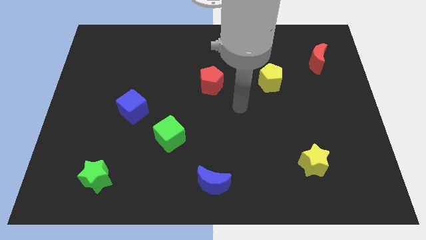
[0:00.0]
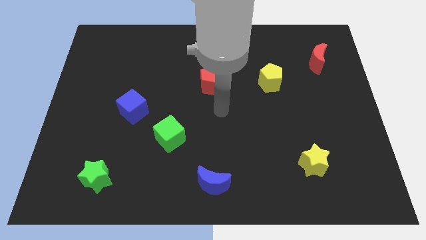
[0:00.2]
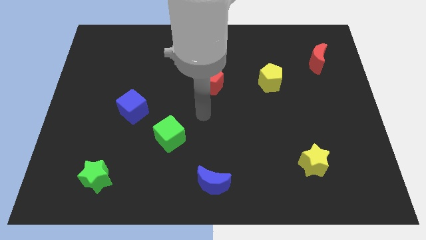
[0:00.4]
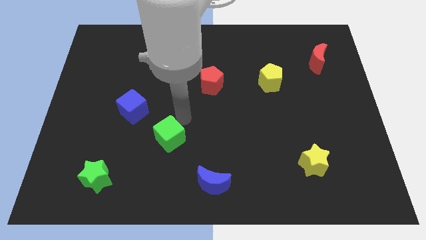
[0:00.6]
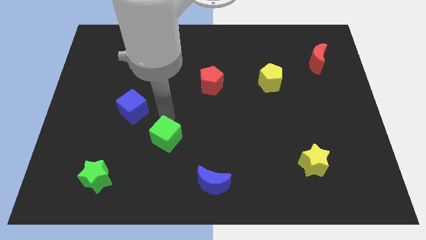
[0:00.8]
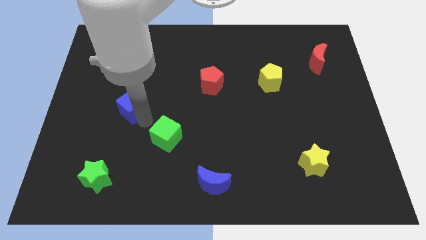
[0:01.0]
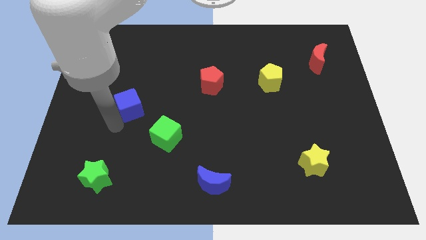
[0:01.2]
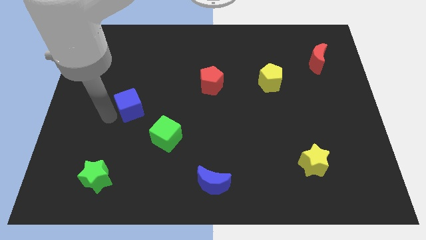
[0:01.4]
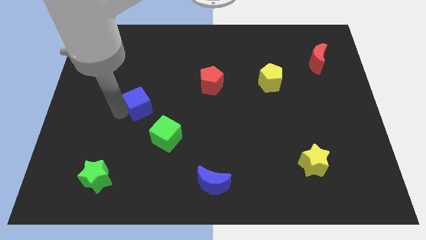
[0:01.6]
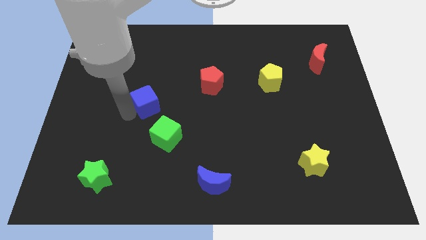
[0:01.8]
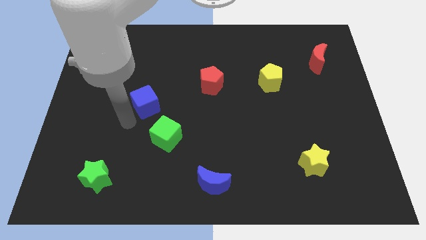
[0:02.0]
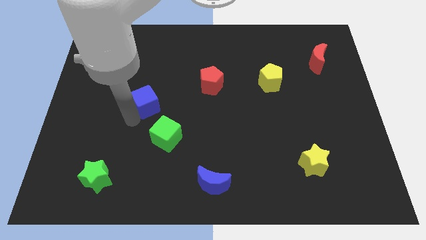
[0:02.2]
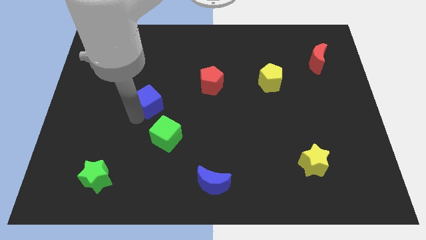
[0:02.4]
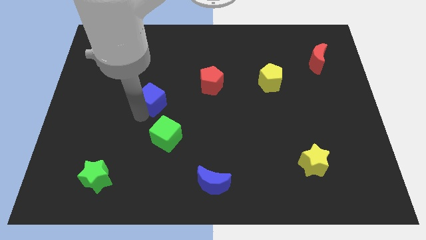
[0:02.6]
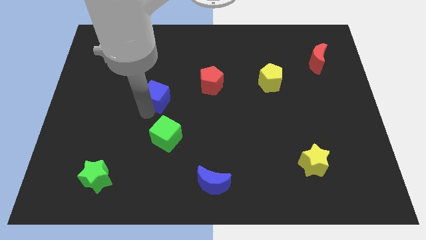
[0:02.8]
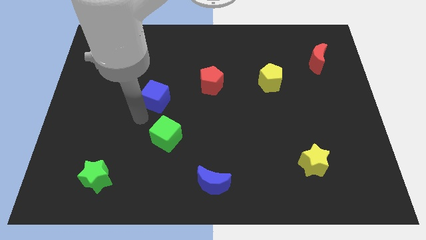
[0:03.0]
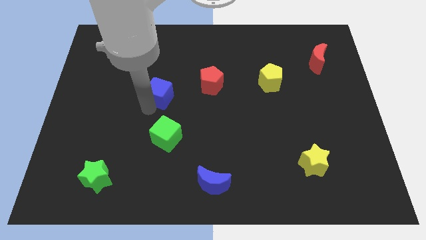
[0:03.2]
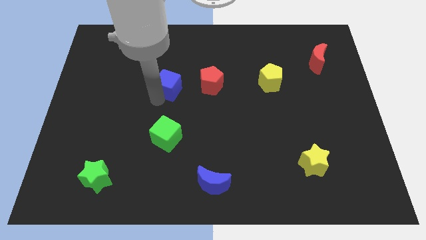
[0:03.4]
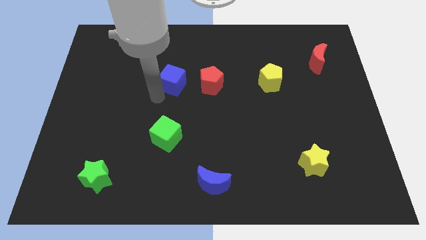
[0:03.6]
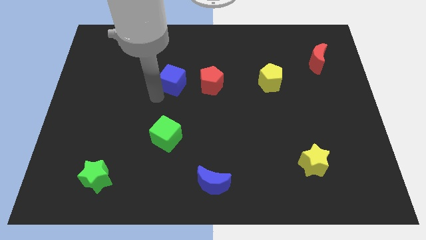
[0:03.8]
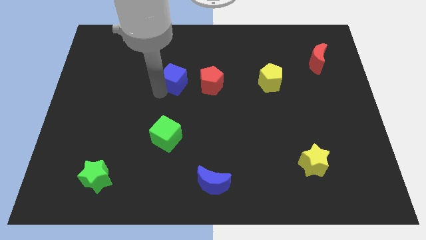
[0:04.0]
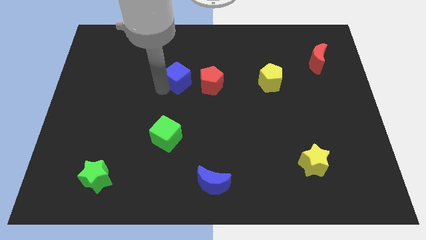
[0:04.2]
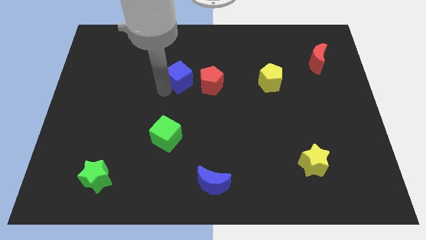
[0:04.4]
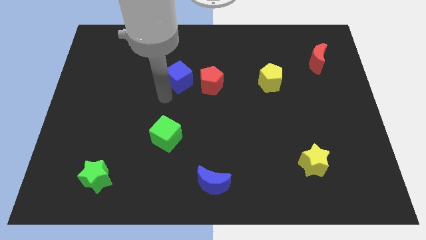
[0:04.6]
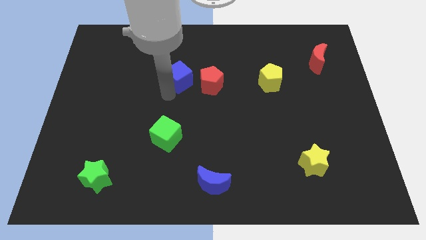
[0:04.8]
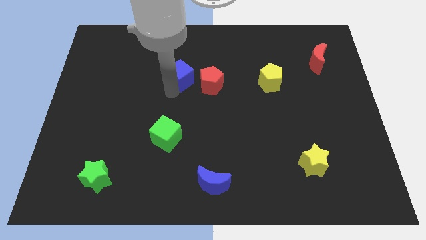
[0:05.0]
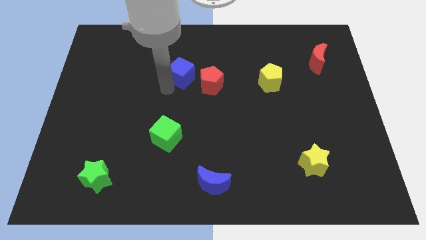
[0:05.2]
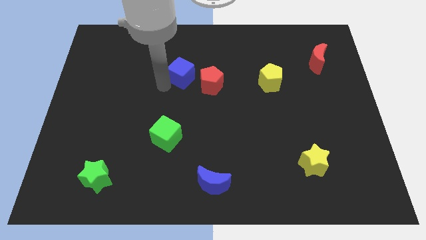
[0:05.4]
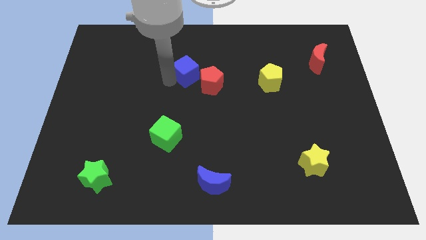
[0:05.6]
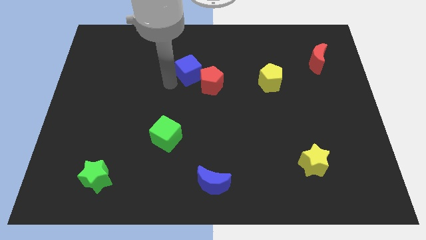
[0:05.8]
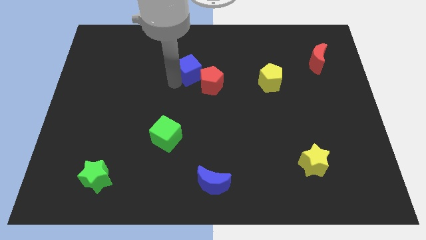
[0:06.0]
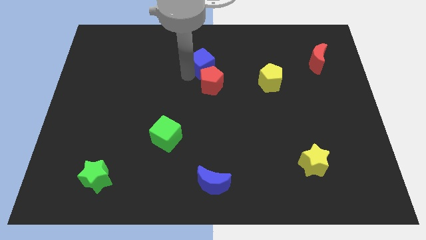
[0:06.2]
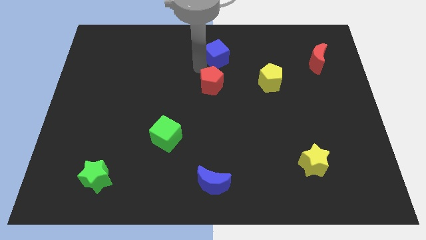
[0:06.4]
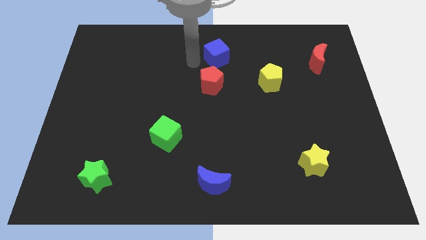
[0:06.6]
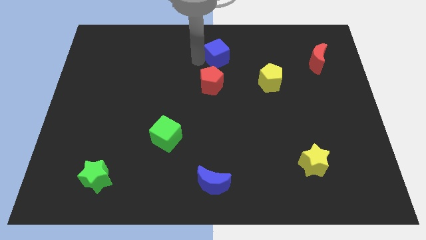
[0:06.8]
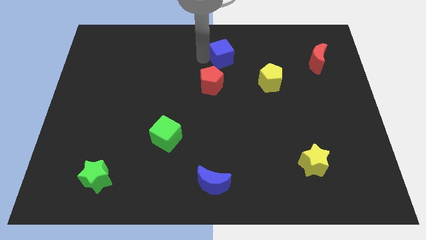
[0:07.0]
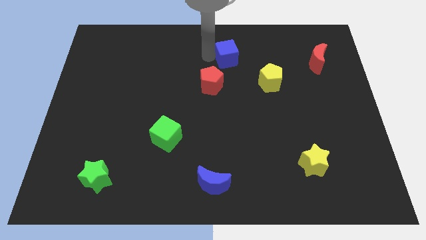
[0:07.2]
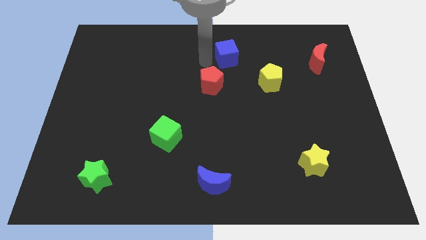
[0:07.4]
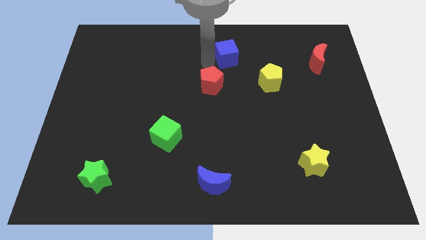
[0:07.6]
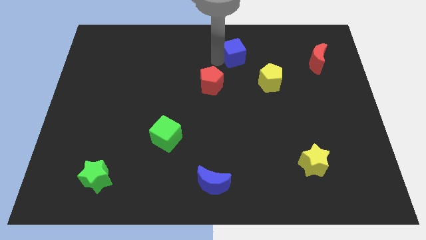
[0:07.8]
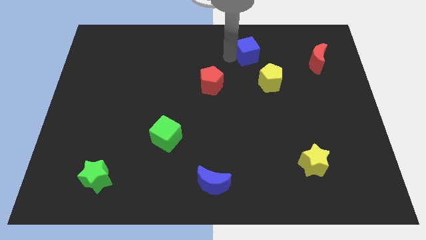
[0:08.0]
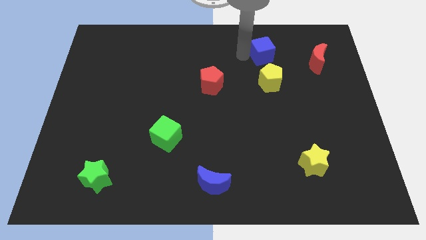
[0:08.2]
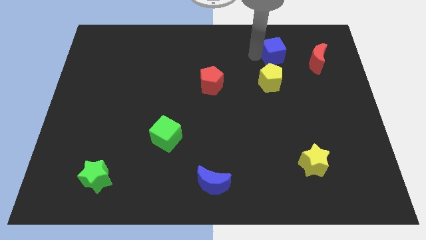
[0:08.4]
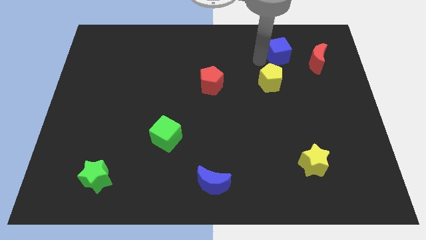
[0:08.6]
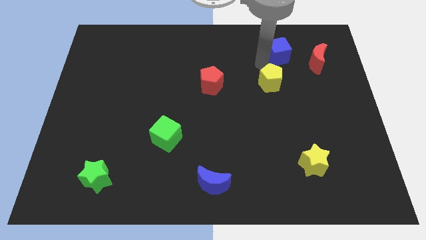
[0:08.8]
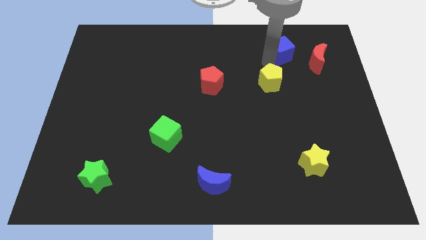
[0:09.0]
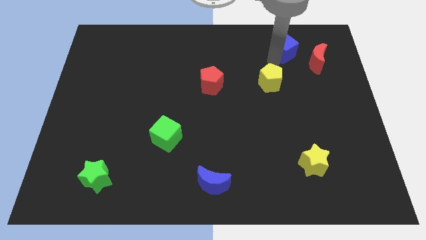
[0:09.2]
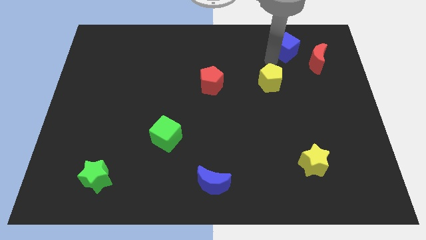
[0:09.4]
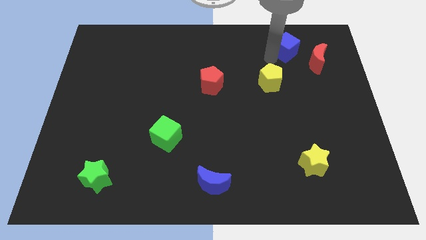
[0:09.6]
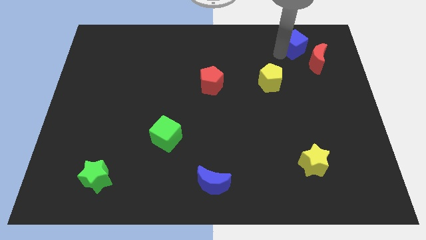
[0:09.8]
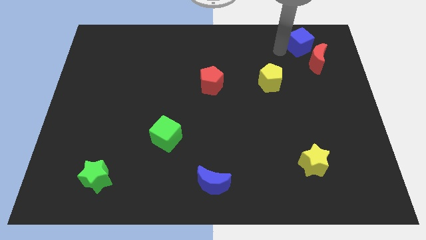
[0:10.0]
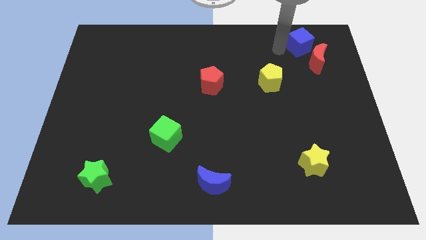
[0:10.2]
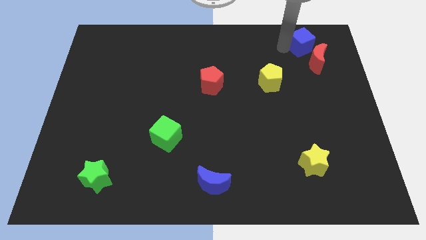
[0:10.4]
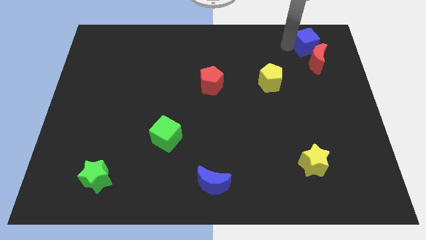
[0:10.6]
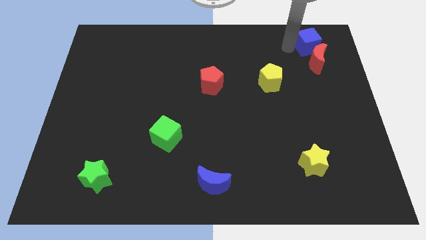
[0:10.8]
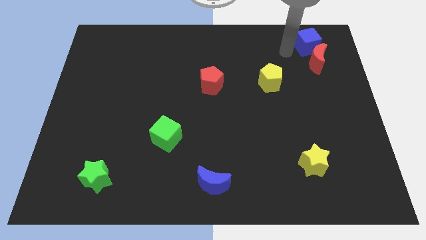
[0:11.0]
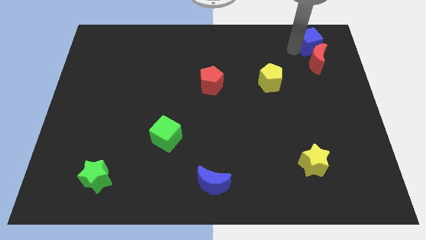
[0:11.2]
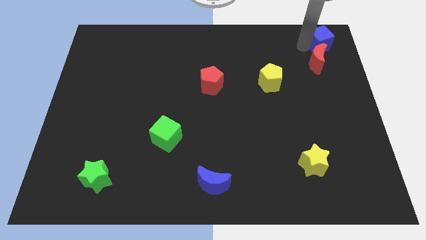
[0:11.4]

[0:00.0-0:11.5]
move the blue cube to the top right corner

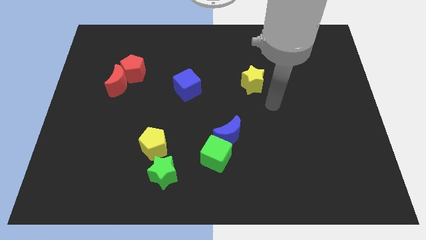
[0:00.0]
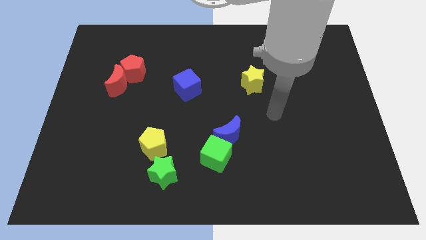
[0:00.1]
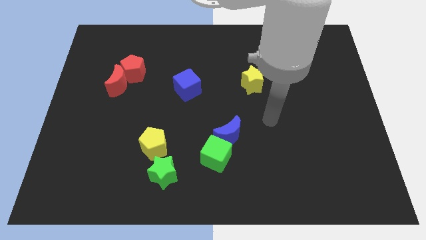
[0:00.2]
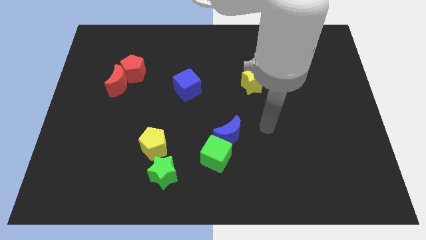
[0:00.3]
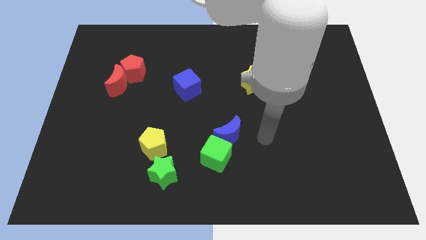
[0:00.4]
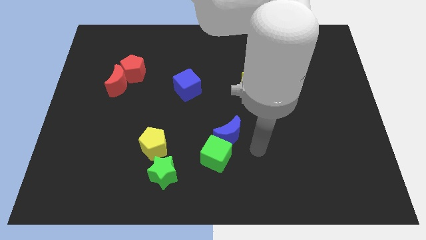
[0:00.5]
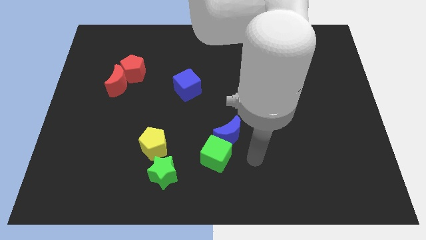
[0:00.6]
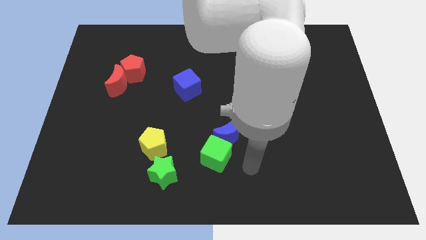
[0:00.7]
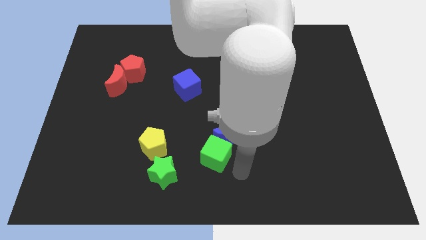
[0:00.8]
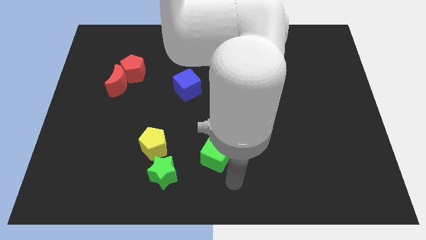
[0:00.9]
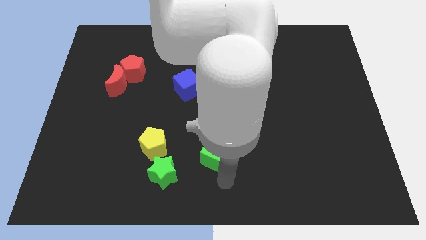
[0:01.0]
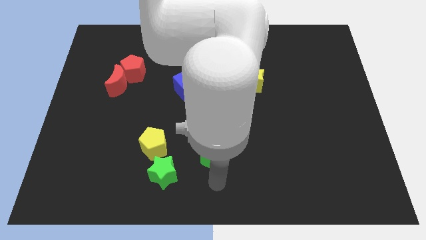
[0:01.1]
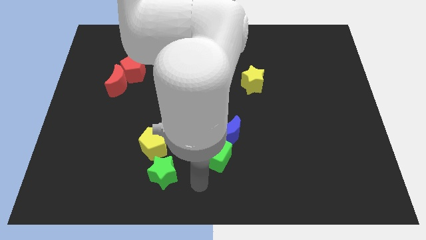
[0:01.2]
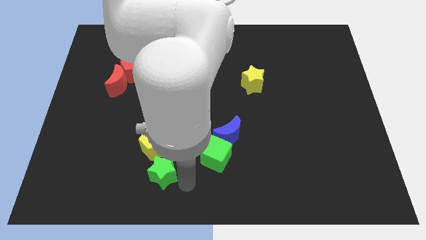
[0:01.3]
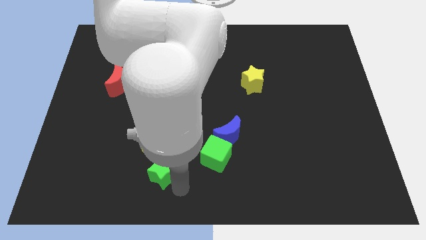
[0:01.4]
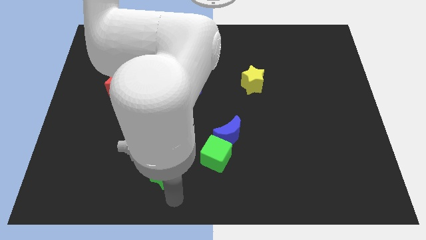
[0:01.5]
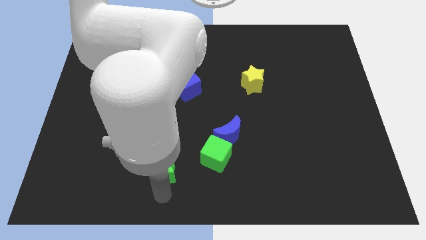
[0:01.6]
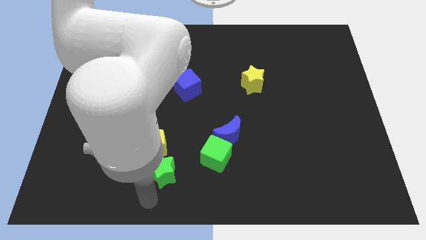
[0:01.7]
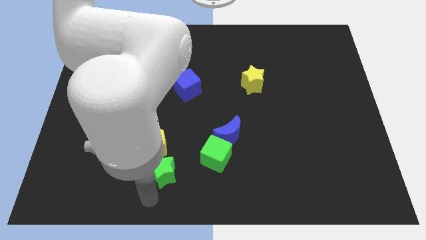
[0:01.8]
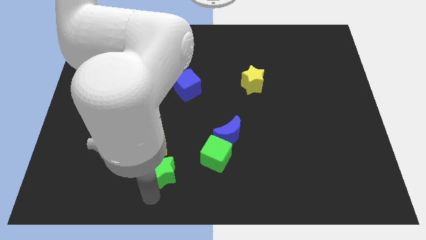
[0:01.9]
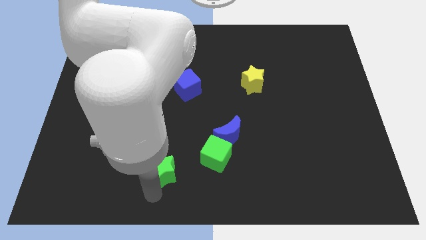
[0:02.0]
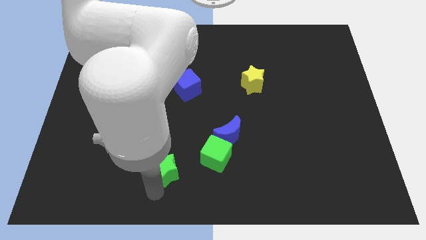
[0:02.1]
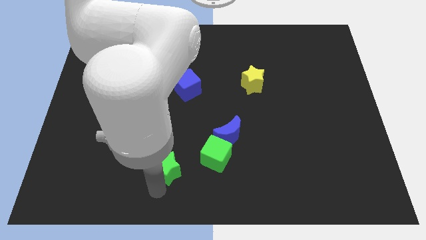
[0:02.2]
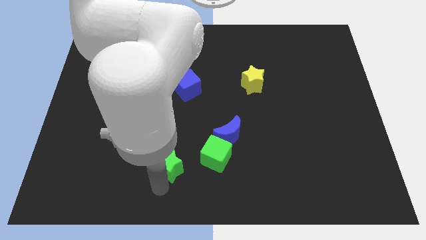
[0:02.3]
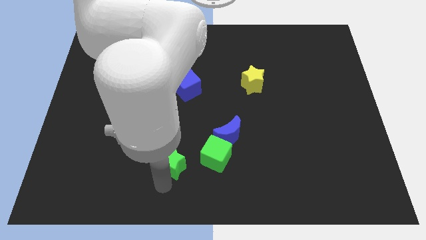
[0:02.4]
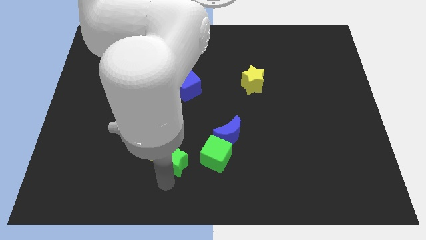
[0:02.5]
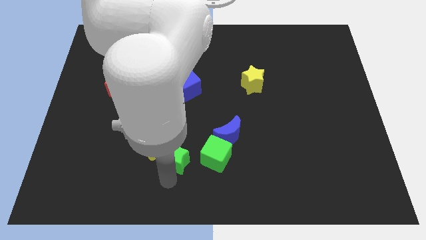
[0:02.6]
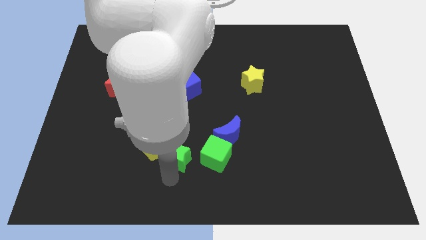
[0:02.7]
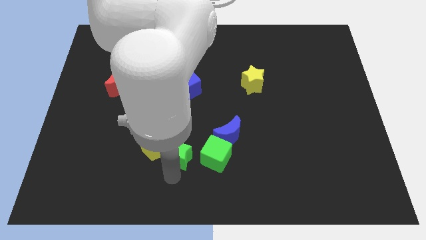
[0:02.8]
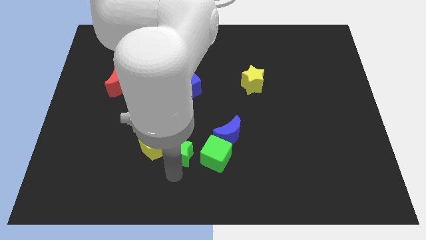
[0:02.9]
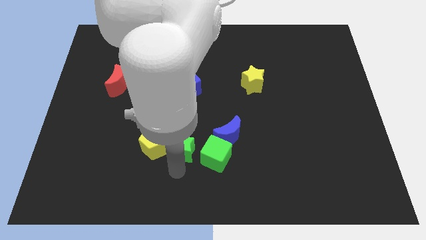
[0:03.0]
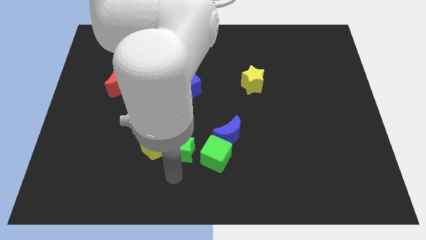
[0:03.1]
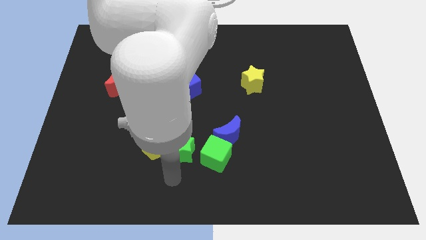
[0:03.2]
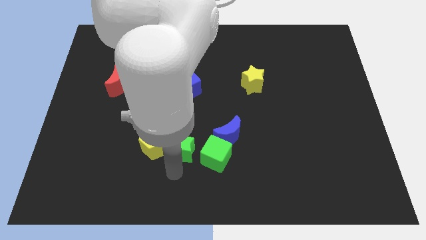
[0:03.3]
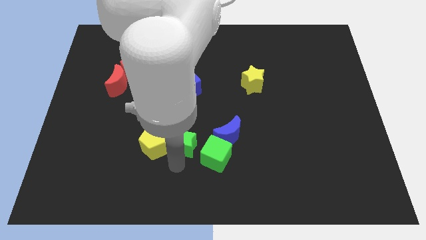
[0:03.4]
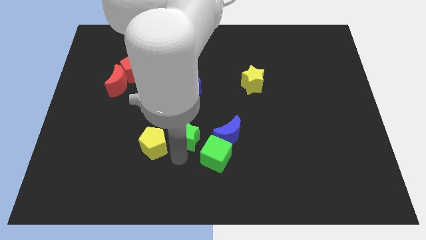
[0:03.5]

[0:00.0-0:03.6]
put the green star to the center
